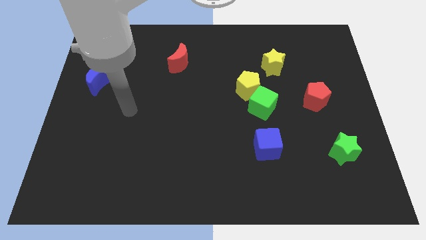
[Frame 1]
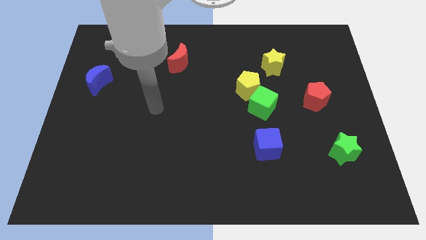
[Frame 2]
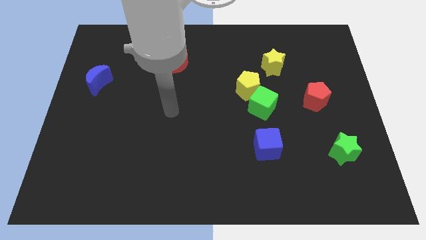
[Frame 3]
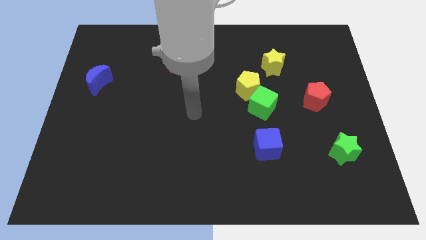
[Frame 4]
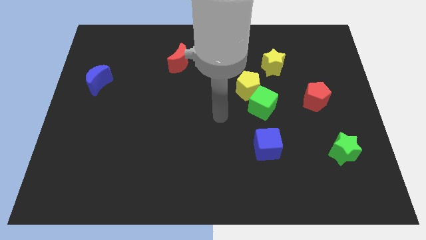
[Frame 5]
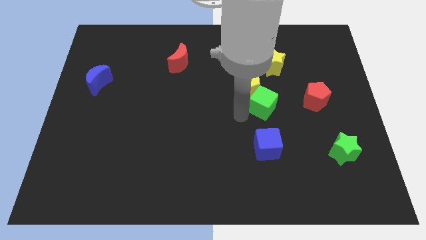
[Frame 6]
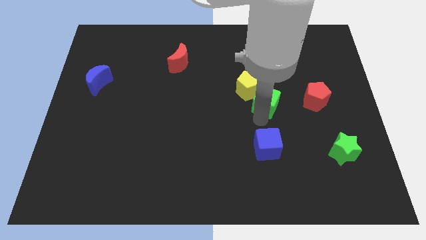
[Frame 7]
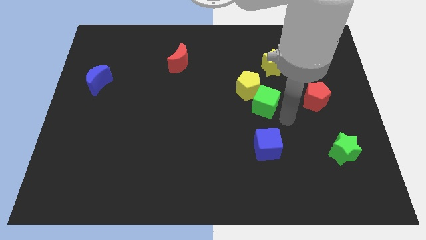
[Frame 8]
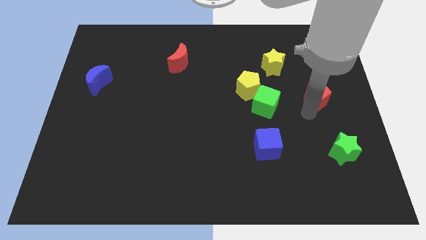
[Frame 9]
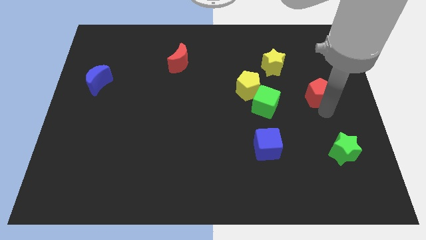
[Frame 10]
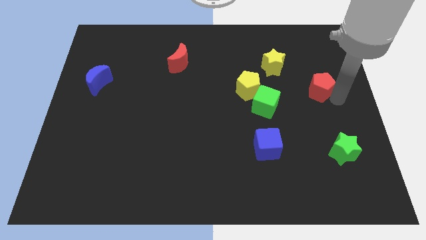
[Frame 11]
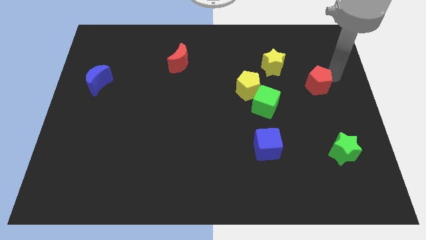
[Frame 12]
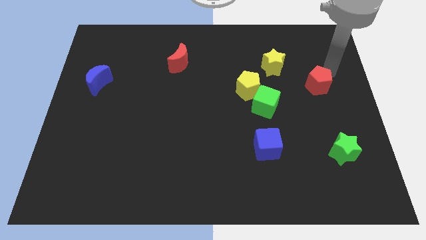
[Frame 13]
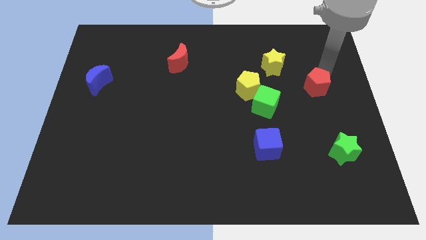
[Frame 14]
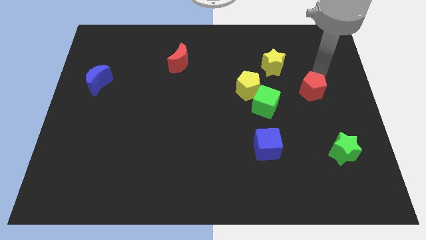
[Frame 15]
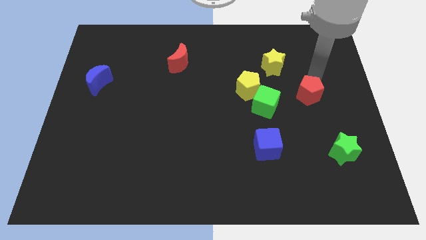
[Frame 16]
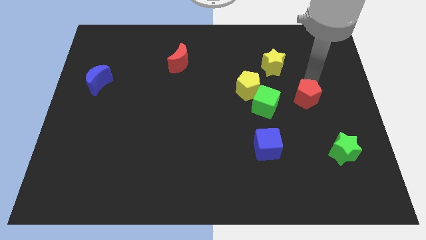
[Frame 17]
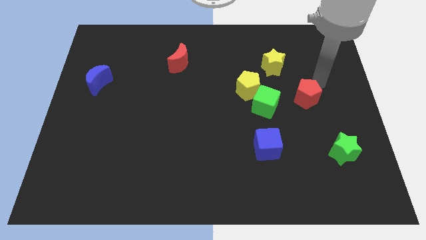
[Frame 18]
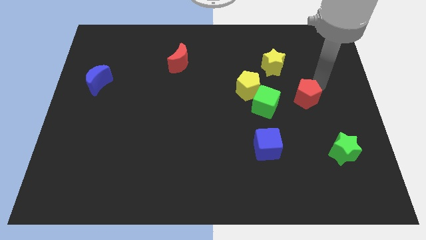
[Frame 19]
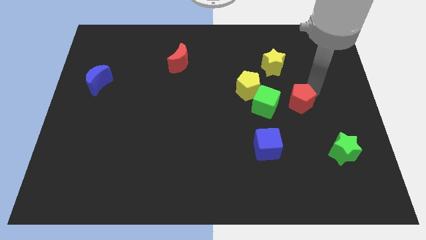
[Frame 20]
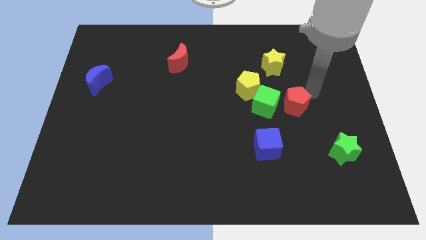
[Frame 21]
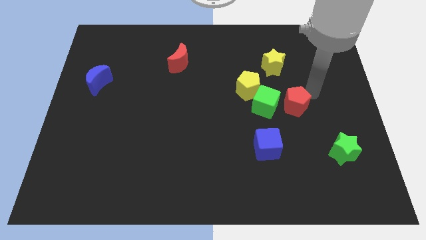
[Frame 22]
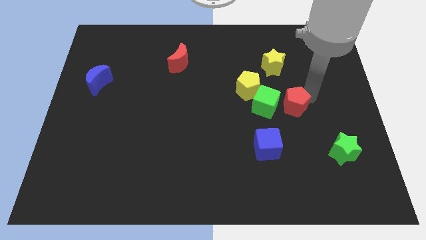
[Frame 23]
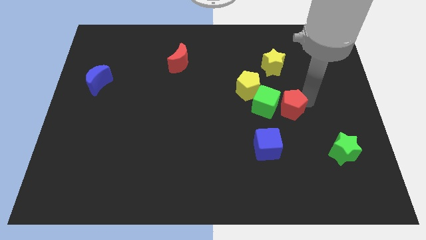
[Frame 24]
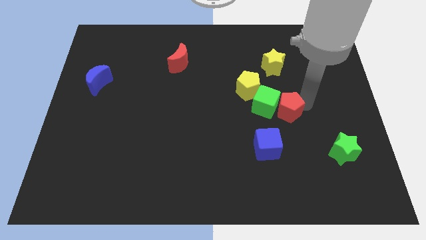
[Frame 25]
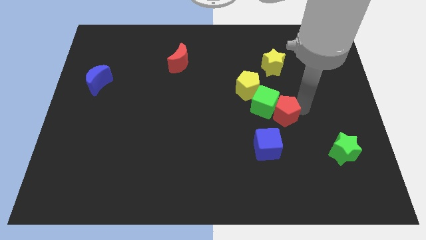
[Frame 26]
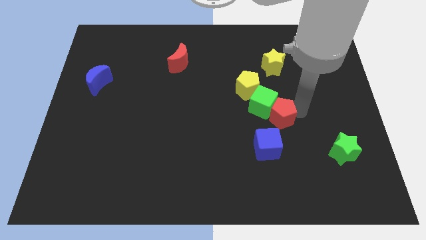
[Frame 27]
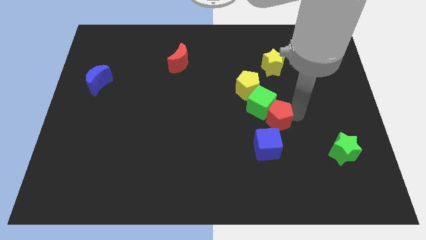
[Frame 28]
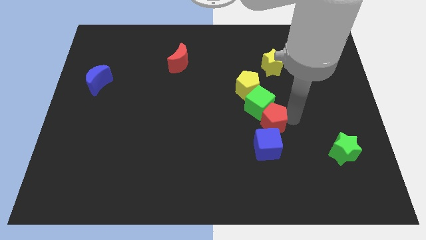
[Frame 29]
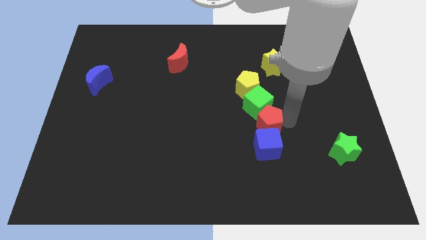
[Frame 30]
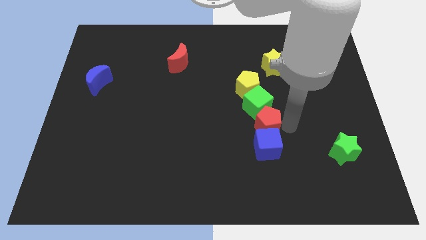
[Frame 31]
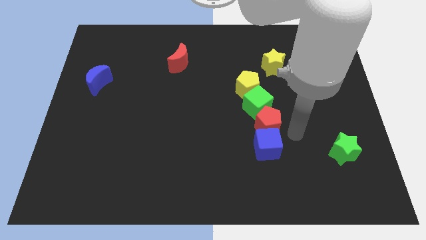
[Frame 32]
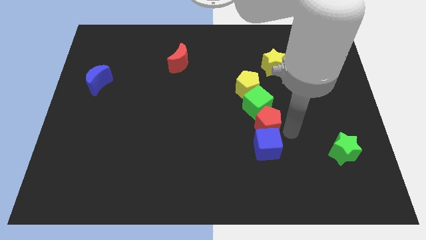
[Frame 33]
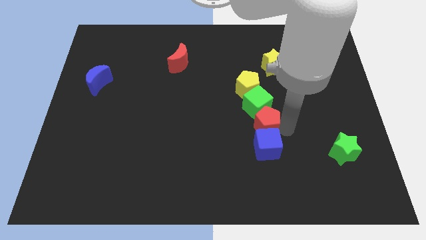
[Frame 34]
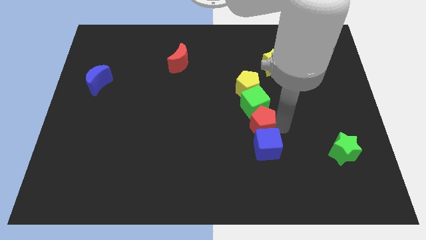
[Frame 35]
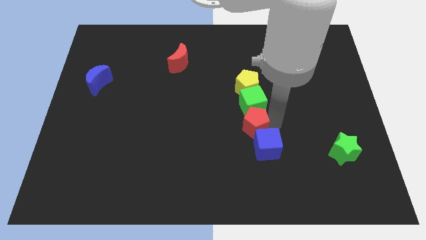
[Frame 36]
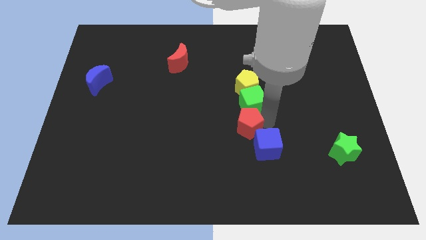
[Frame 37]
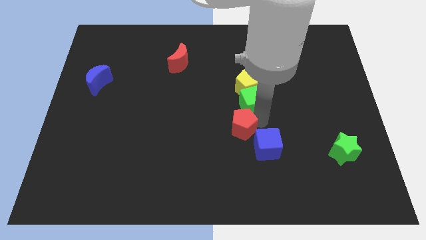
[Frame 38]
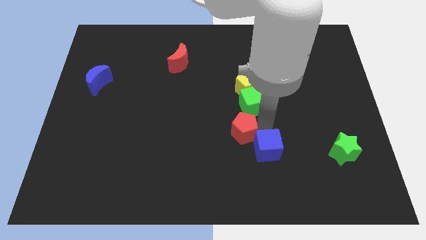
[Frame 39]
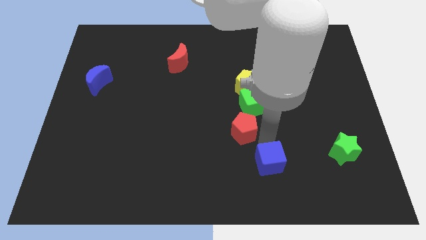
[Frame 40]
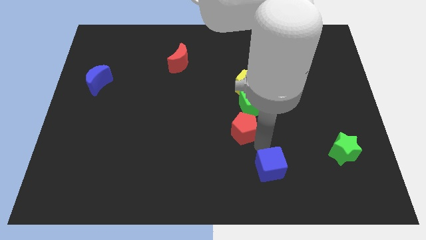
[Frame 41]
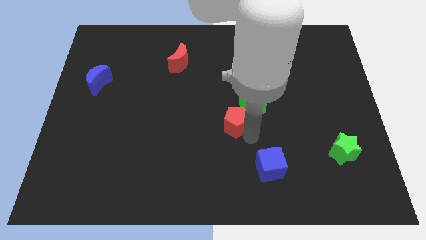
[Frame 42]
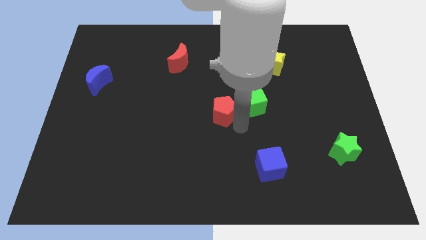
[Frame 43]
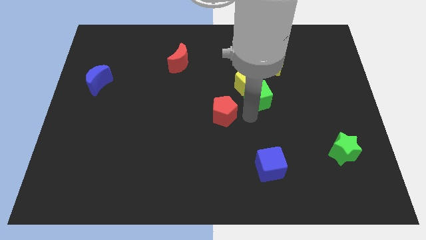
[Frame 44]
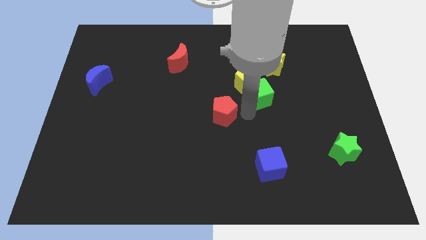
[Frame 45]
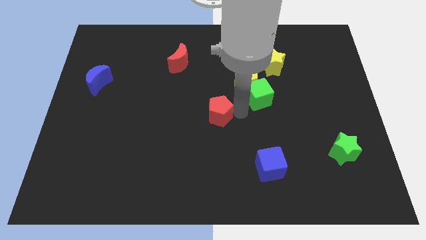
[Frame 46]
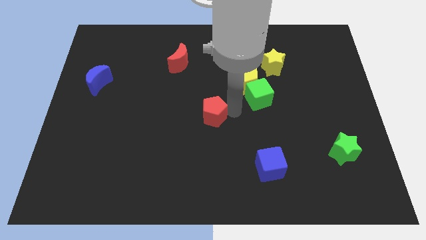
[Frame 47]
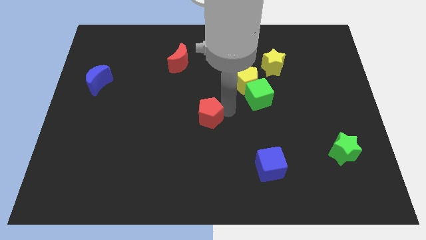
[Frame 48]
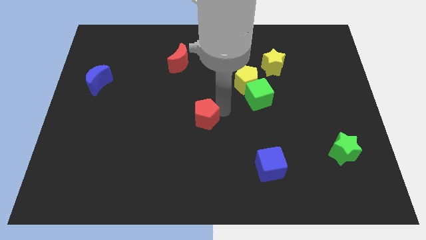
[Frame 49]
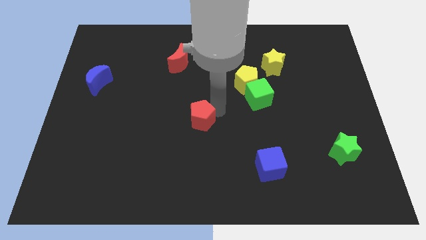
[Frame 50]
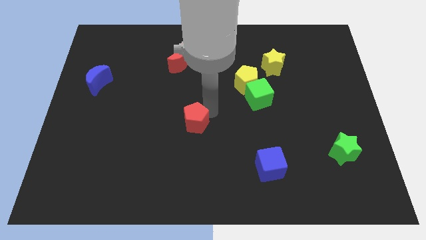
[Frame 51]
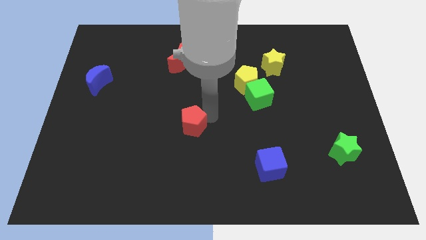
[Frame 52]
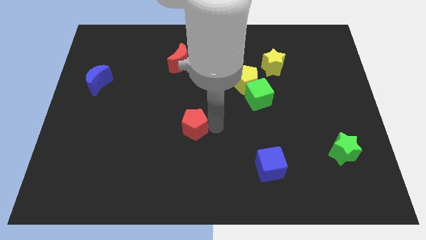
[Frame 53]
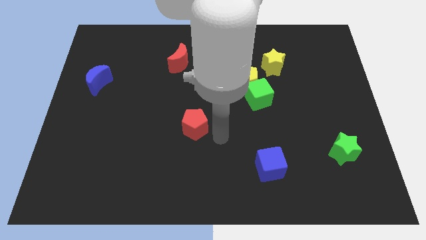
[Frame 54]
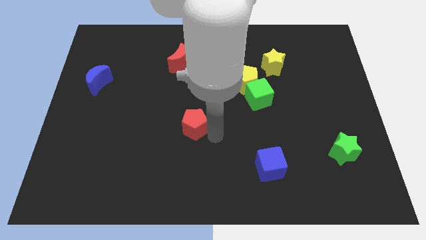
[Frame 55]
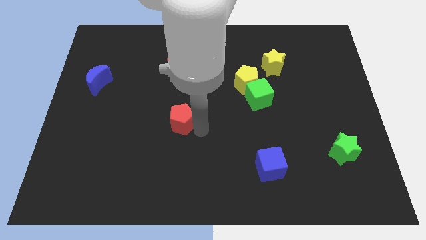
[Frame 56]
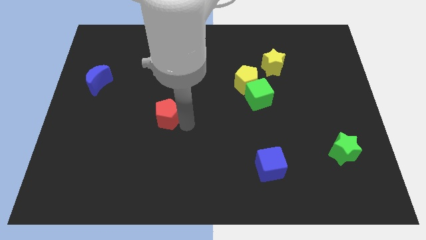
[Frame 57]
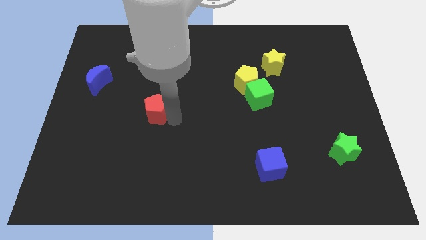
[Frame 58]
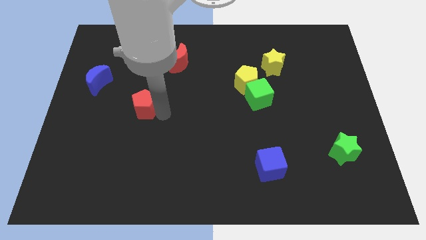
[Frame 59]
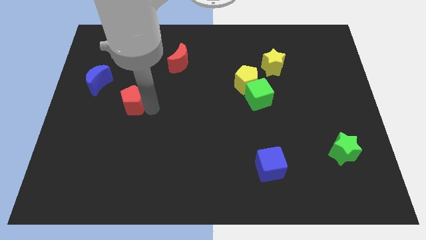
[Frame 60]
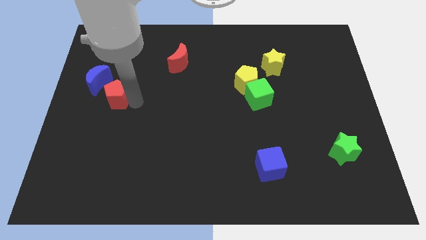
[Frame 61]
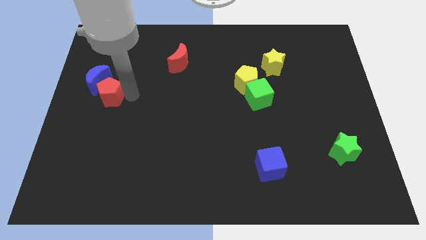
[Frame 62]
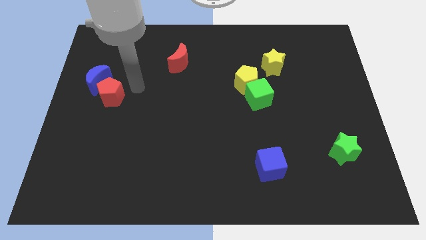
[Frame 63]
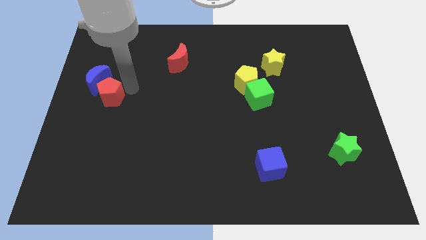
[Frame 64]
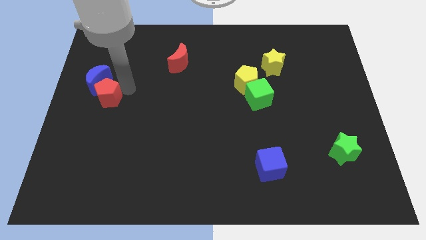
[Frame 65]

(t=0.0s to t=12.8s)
slide the red pentagon to the center left

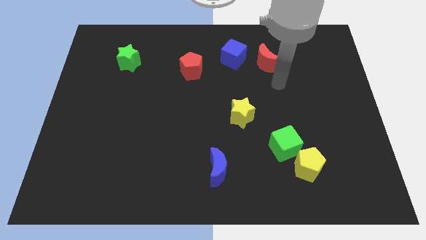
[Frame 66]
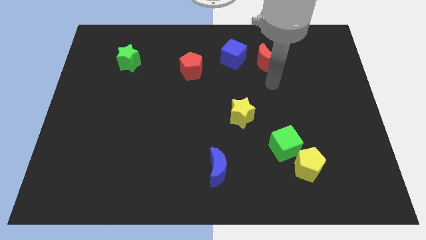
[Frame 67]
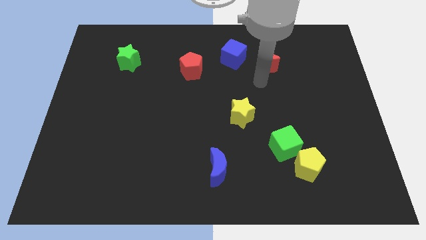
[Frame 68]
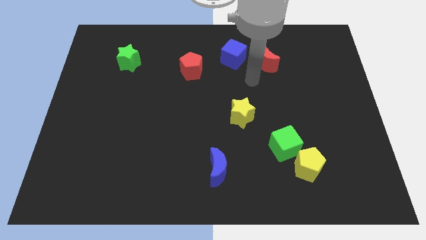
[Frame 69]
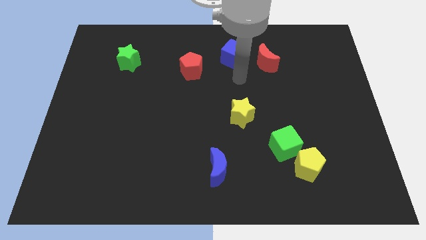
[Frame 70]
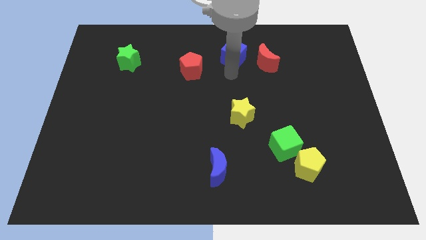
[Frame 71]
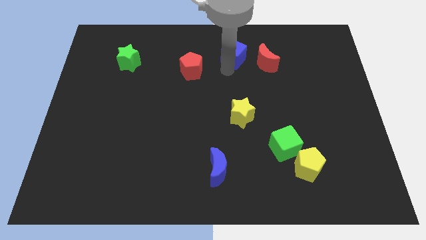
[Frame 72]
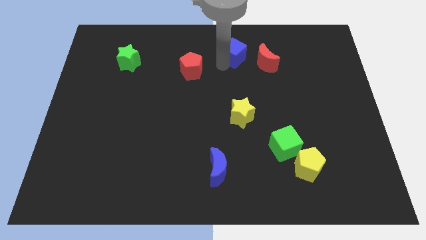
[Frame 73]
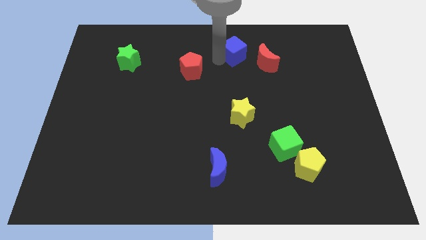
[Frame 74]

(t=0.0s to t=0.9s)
move the blue cube to the towards your base
